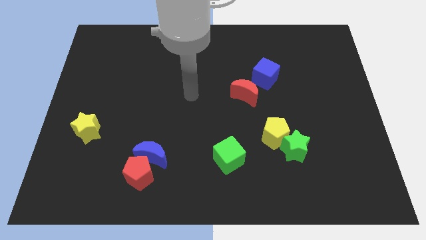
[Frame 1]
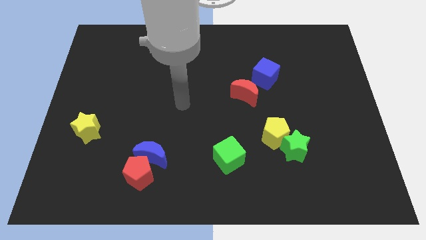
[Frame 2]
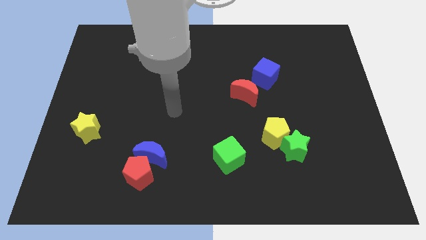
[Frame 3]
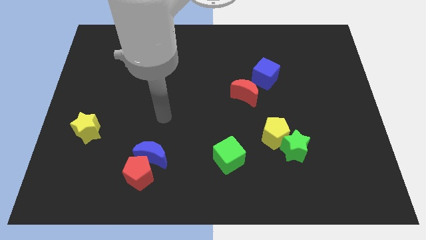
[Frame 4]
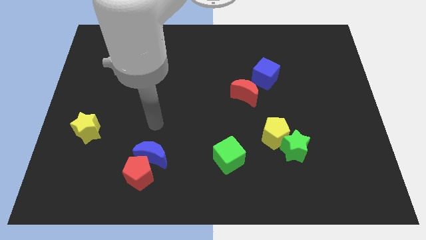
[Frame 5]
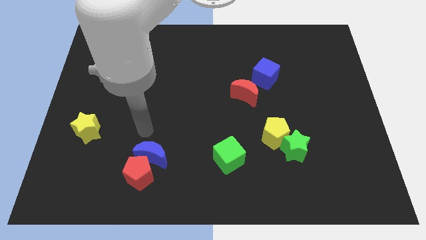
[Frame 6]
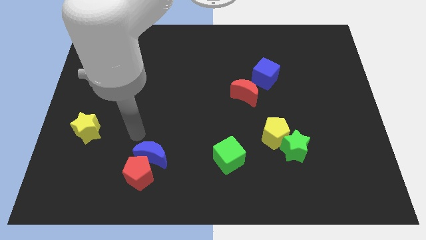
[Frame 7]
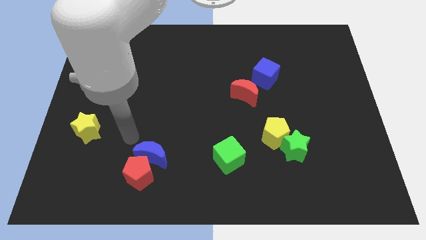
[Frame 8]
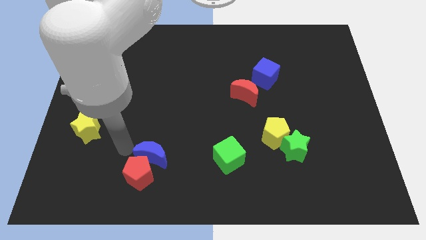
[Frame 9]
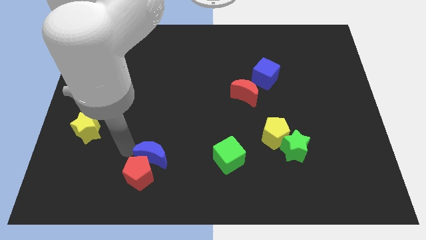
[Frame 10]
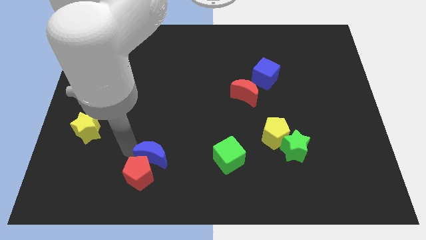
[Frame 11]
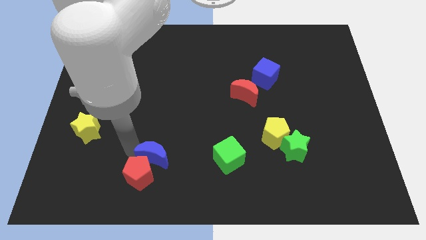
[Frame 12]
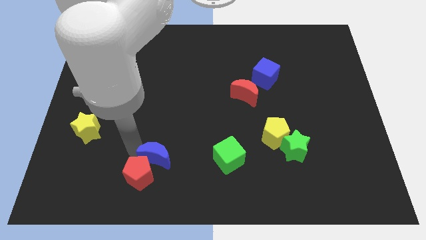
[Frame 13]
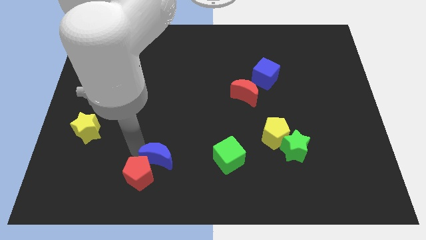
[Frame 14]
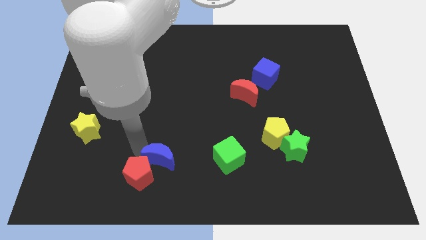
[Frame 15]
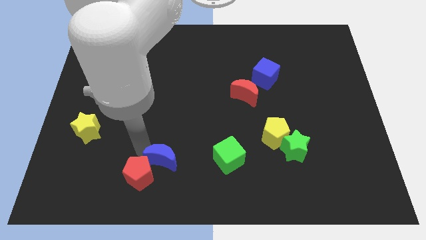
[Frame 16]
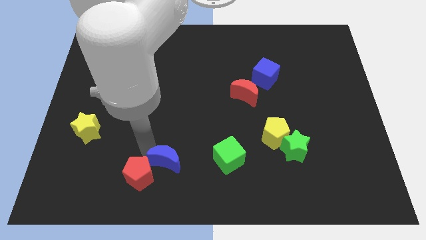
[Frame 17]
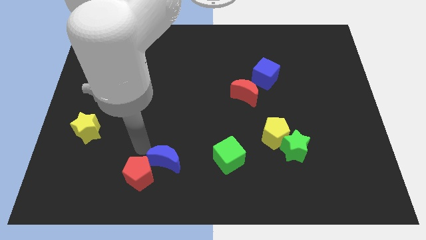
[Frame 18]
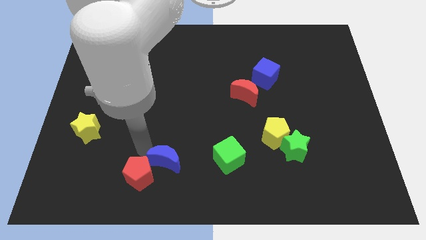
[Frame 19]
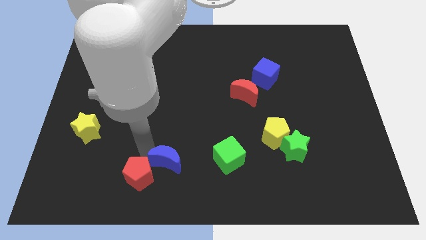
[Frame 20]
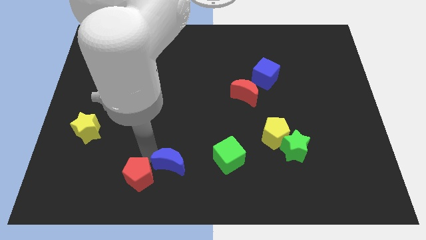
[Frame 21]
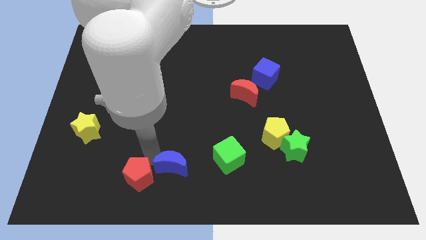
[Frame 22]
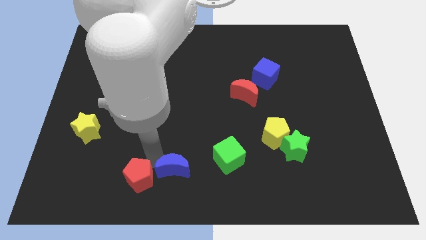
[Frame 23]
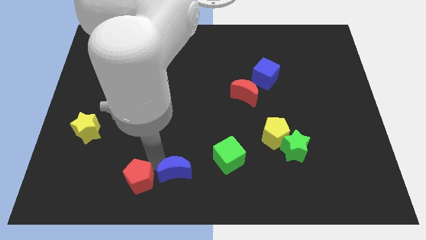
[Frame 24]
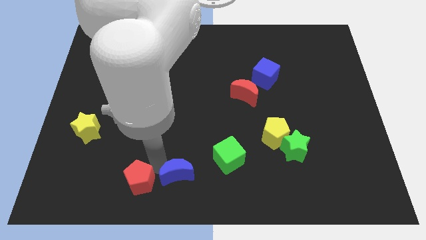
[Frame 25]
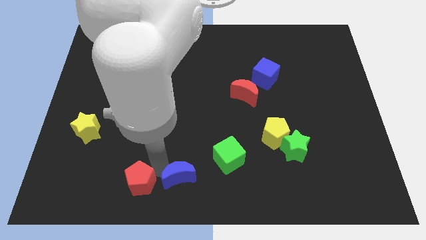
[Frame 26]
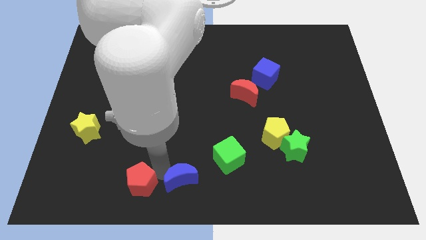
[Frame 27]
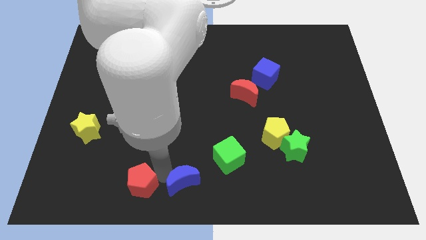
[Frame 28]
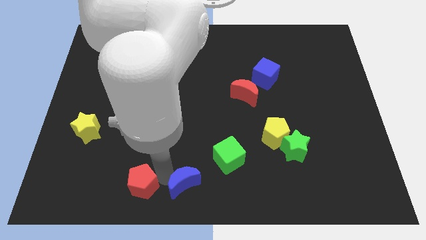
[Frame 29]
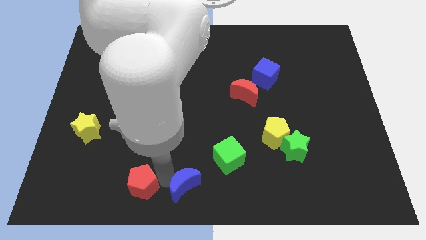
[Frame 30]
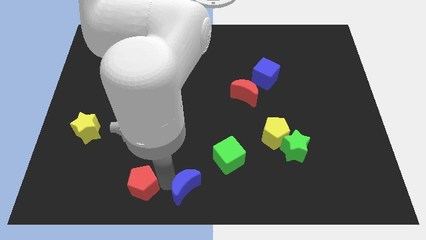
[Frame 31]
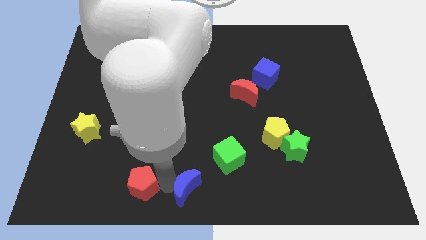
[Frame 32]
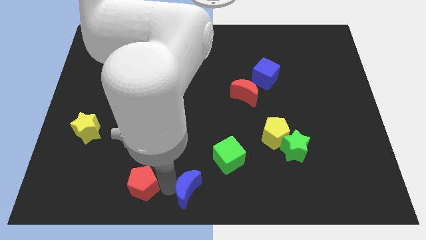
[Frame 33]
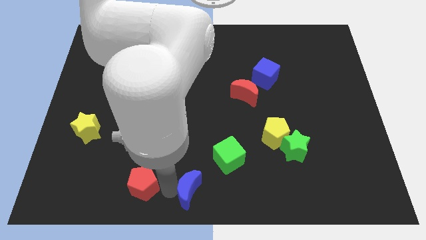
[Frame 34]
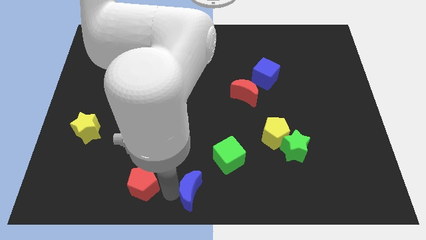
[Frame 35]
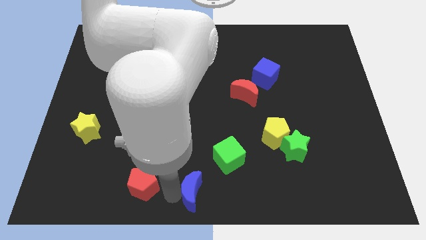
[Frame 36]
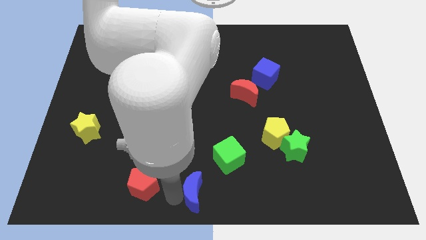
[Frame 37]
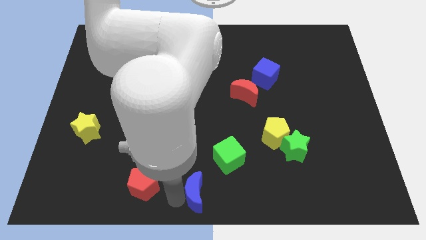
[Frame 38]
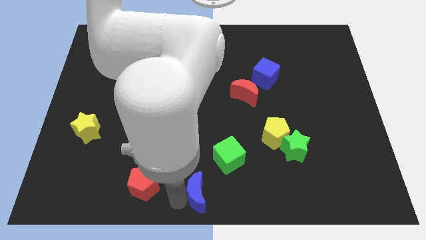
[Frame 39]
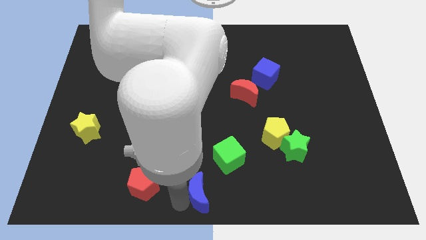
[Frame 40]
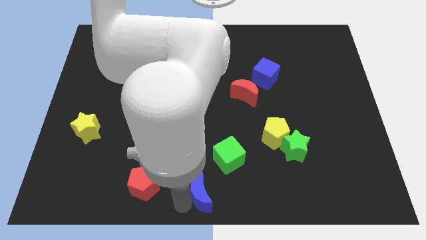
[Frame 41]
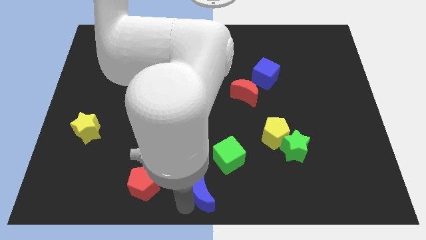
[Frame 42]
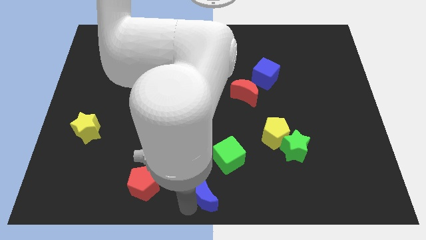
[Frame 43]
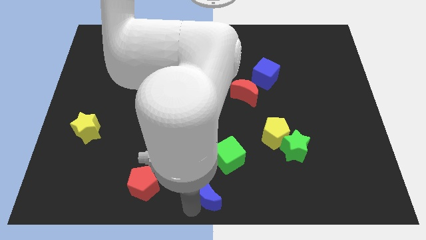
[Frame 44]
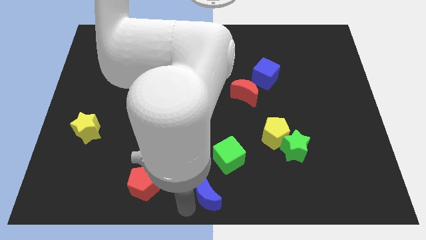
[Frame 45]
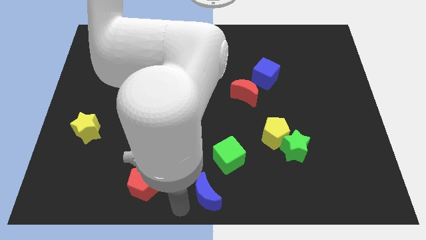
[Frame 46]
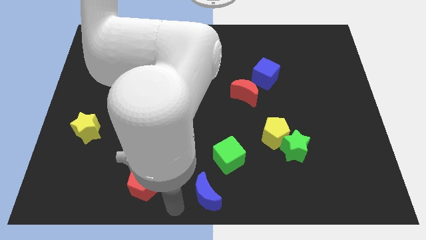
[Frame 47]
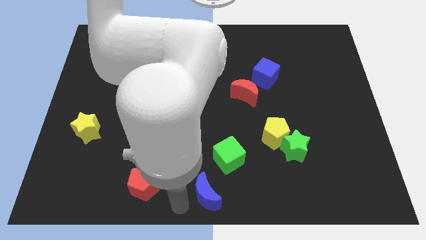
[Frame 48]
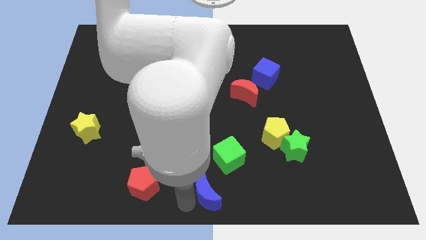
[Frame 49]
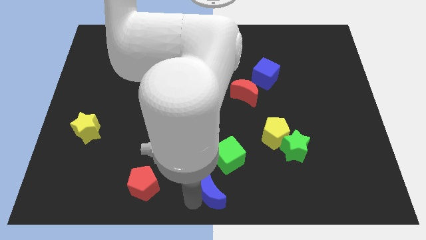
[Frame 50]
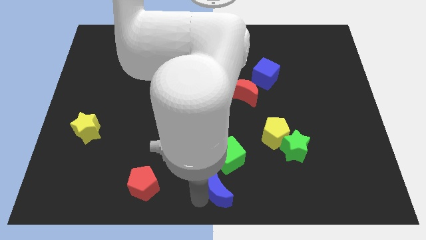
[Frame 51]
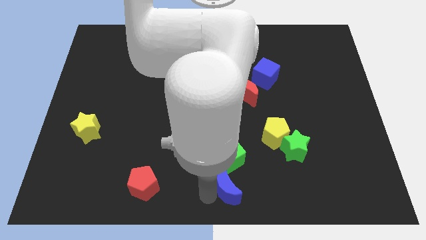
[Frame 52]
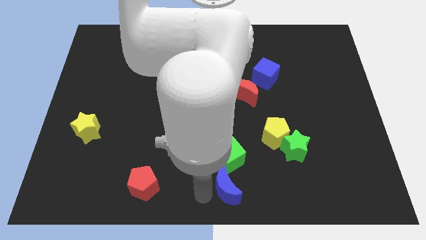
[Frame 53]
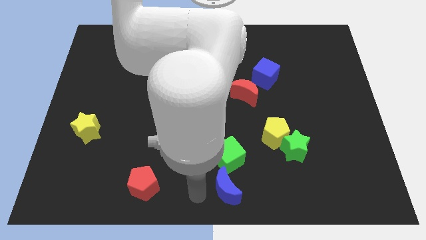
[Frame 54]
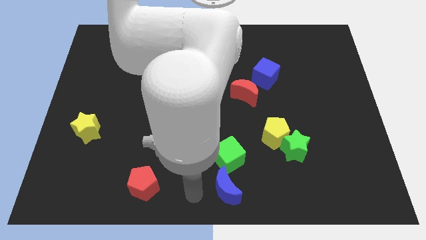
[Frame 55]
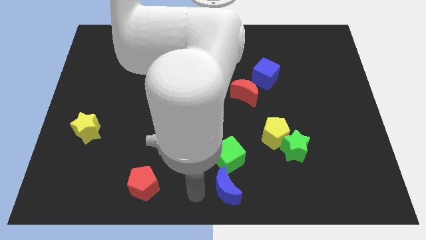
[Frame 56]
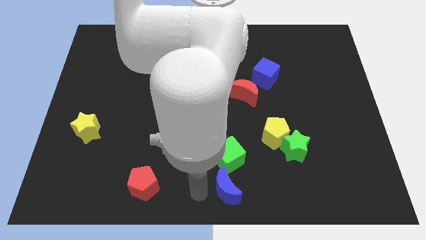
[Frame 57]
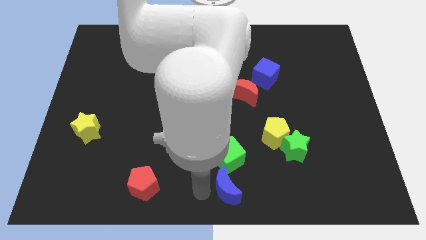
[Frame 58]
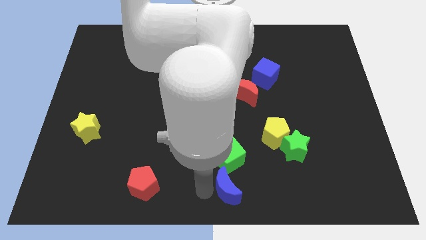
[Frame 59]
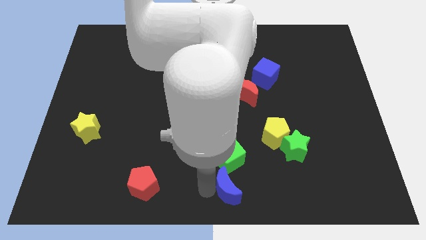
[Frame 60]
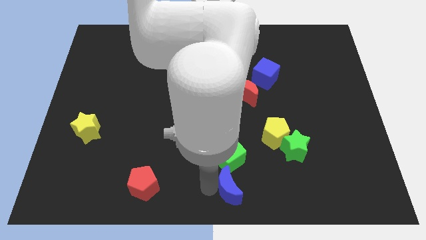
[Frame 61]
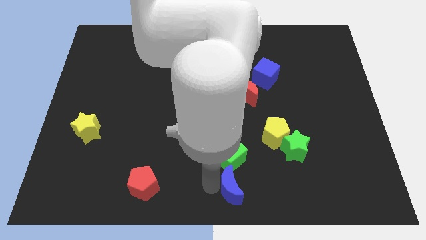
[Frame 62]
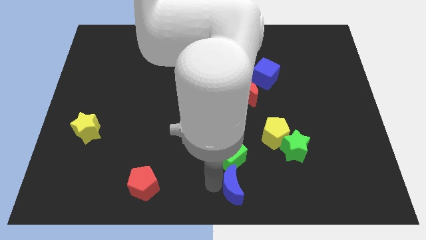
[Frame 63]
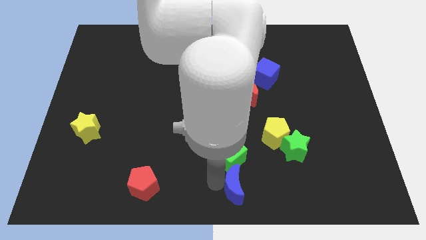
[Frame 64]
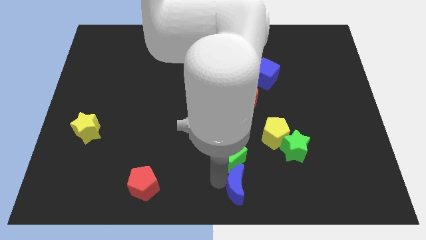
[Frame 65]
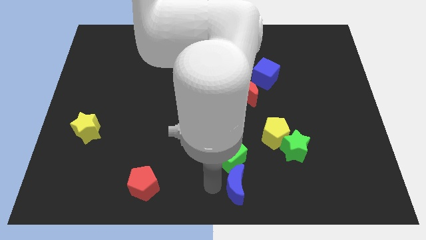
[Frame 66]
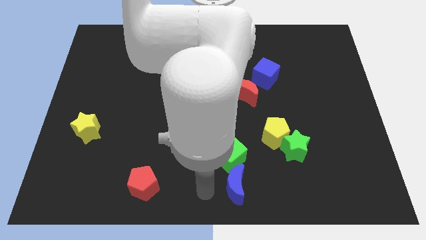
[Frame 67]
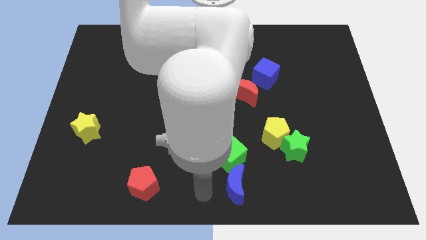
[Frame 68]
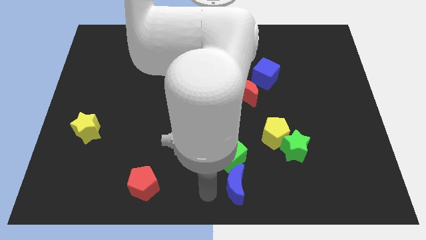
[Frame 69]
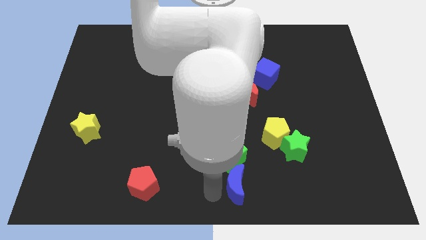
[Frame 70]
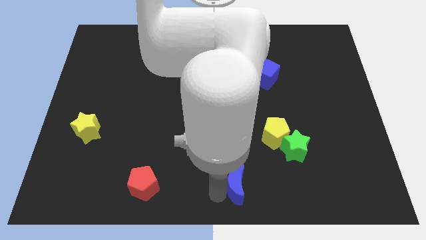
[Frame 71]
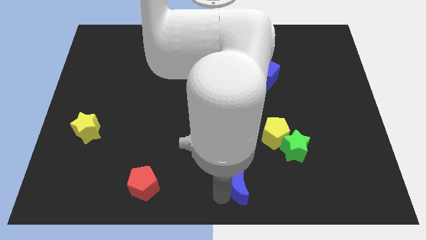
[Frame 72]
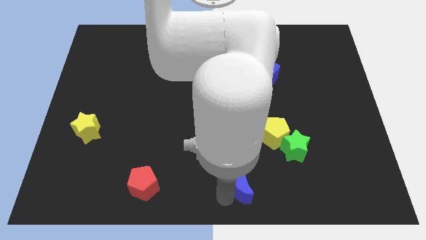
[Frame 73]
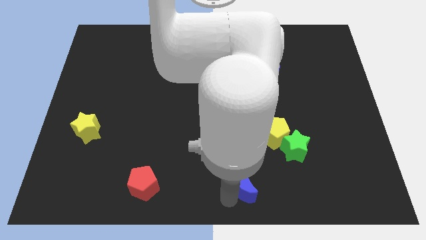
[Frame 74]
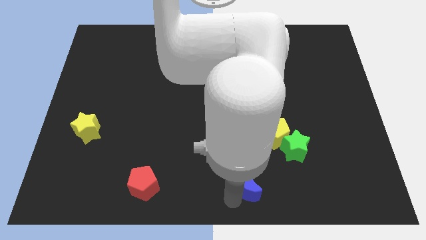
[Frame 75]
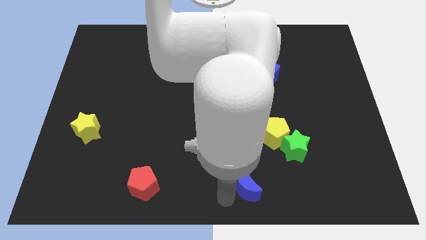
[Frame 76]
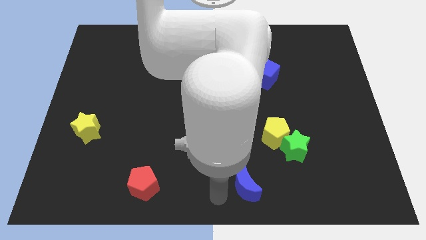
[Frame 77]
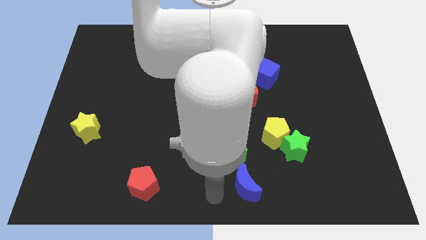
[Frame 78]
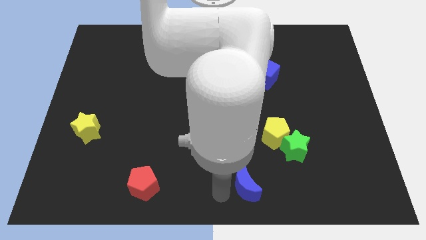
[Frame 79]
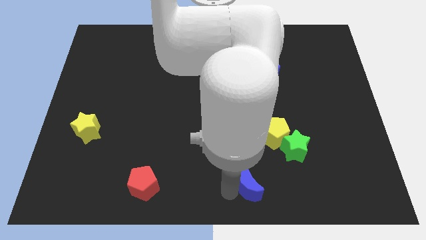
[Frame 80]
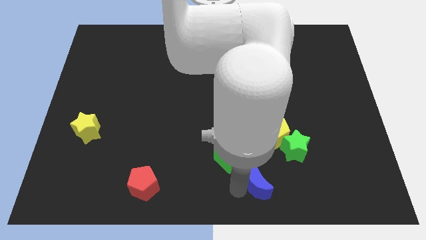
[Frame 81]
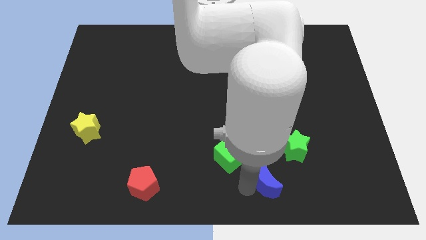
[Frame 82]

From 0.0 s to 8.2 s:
put the blue moon to the bottom of the yellow pentagon
